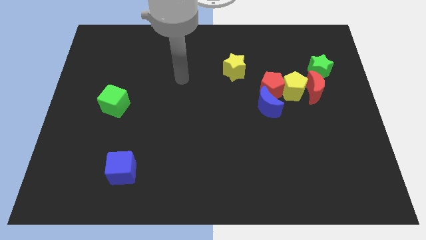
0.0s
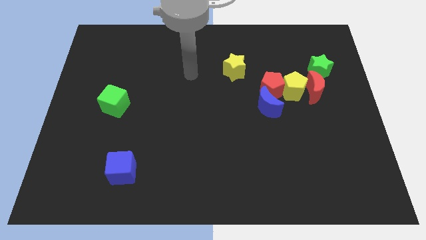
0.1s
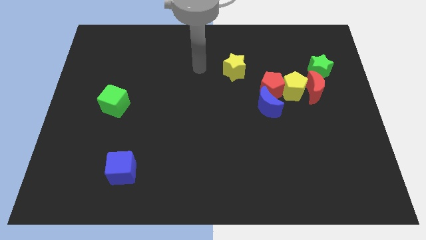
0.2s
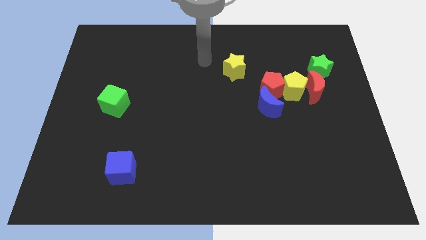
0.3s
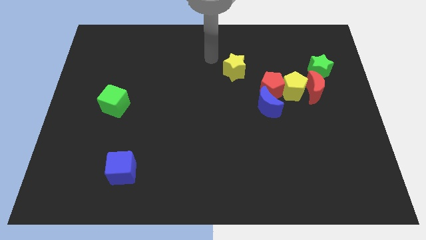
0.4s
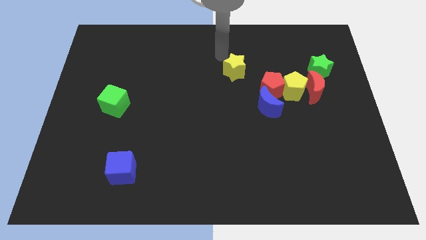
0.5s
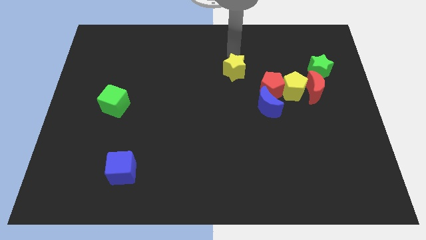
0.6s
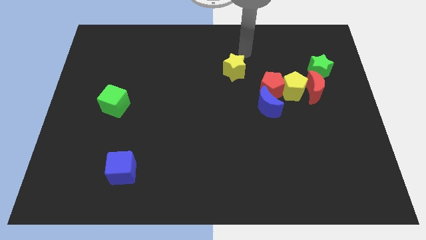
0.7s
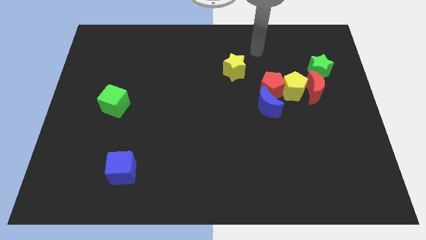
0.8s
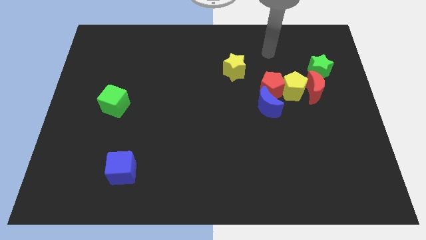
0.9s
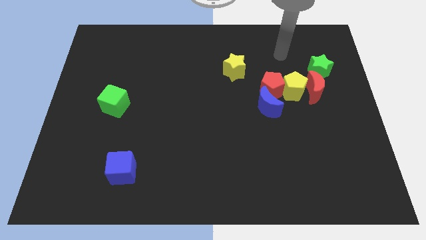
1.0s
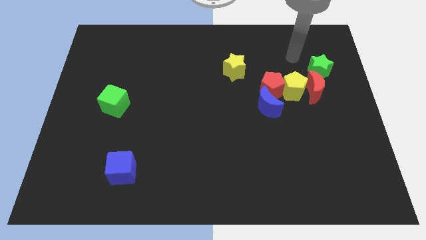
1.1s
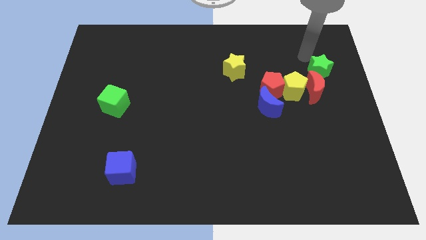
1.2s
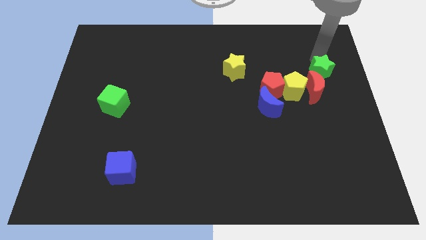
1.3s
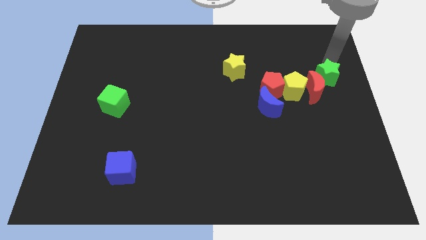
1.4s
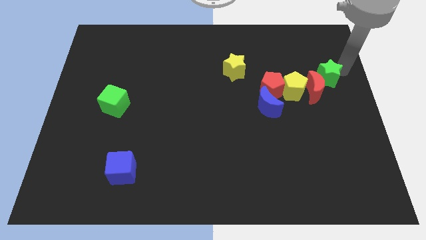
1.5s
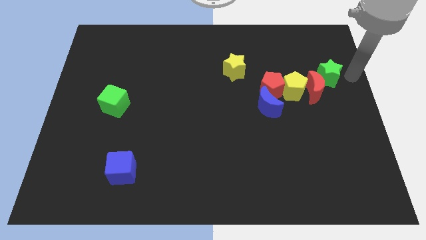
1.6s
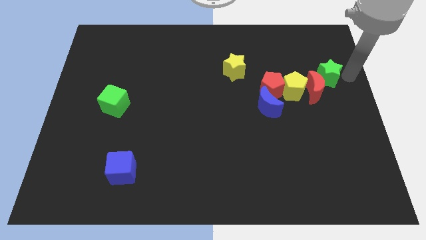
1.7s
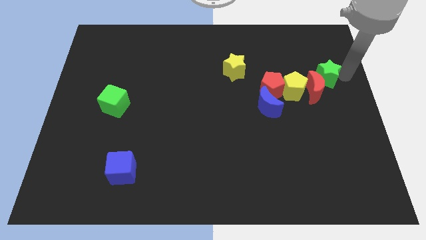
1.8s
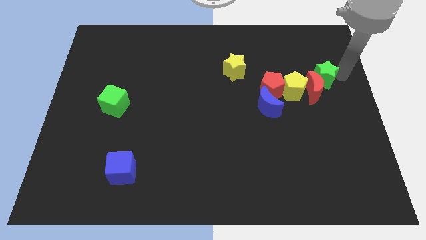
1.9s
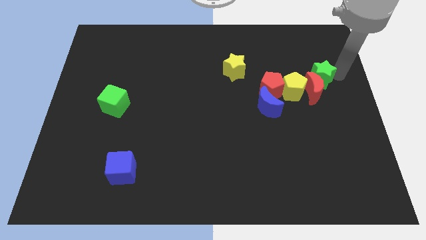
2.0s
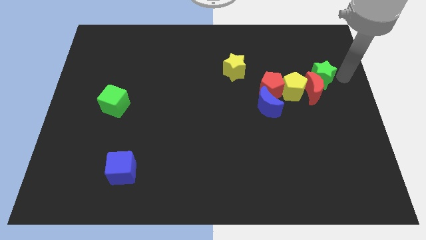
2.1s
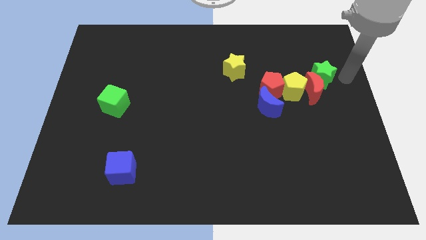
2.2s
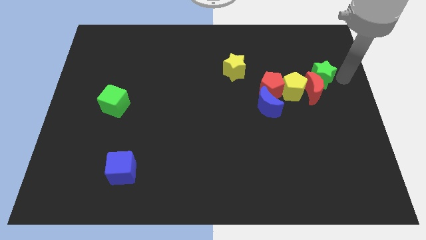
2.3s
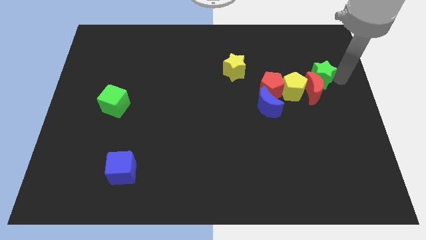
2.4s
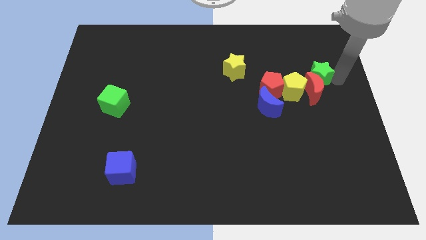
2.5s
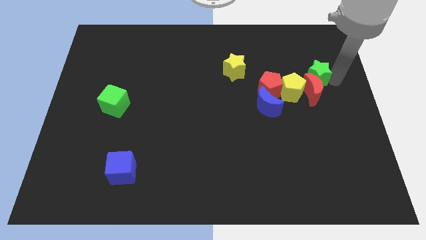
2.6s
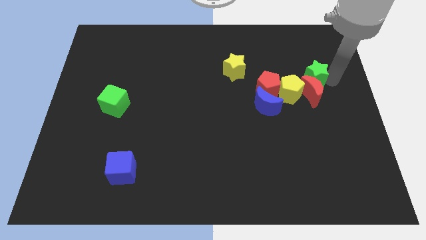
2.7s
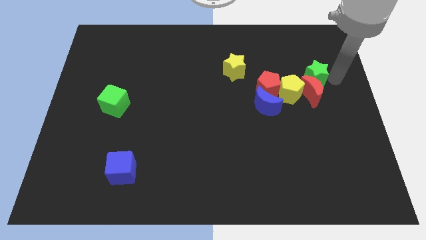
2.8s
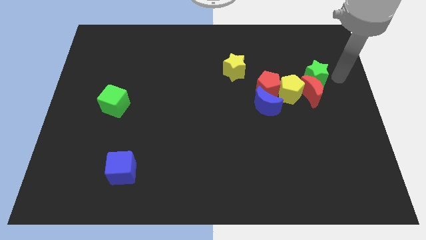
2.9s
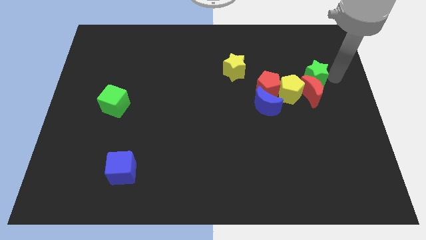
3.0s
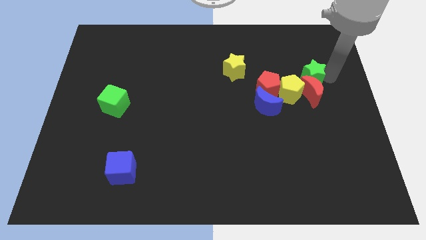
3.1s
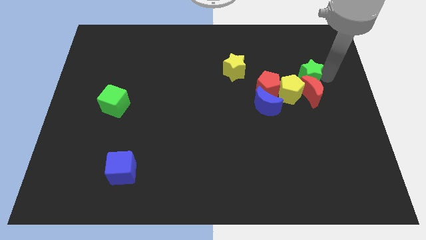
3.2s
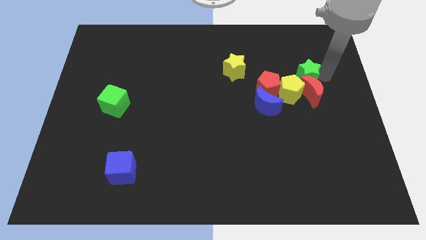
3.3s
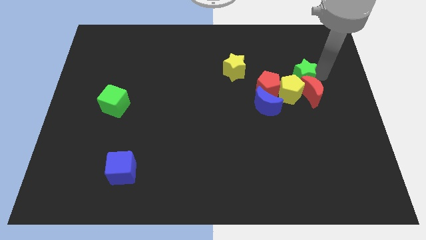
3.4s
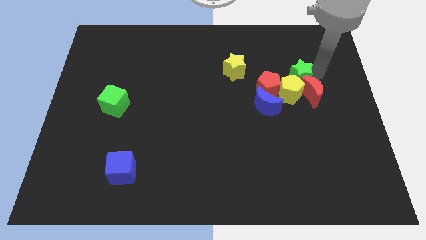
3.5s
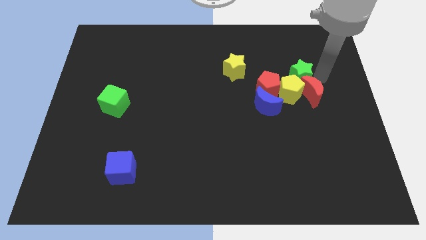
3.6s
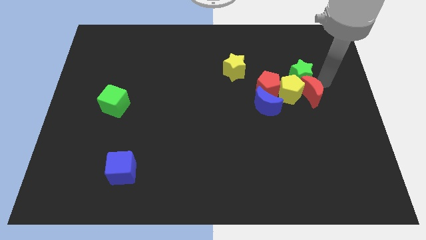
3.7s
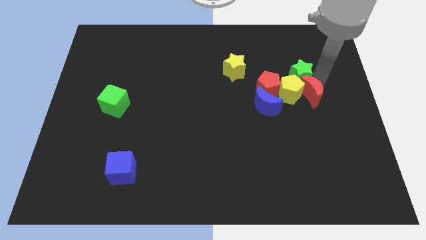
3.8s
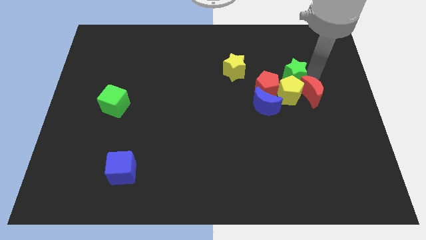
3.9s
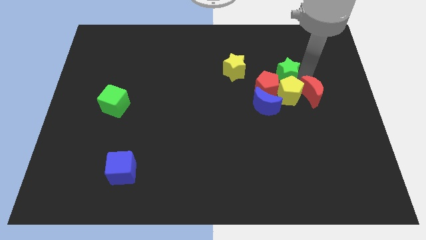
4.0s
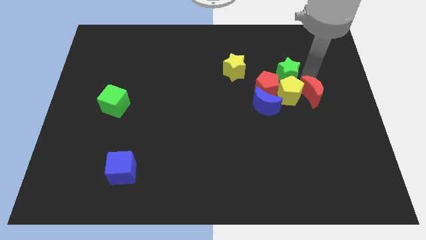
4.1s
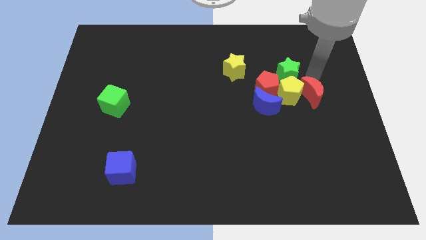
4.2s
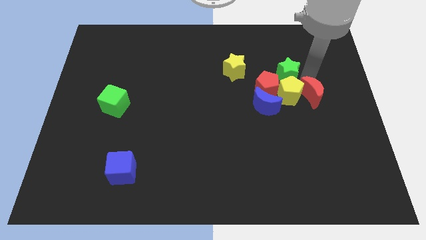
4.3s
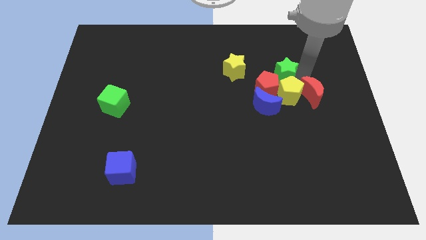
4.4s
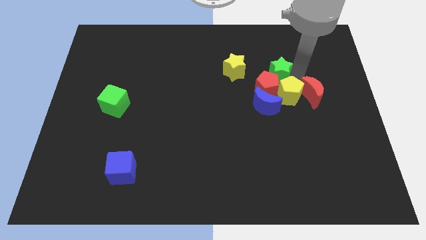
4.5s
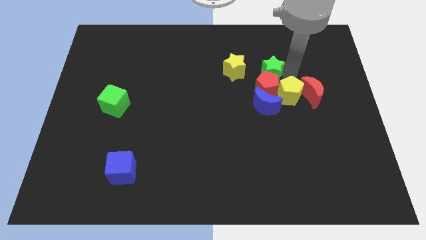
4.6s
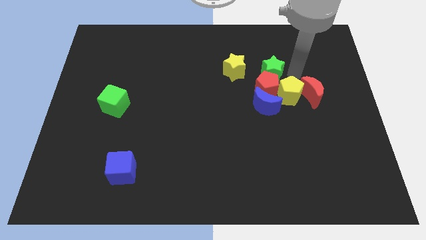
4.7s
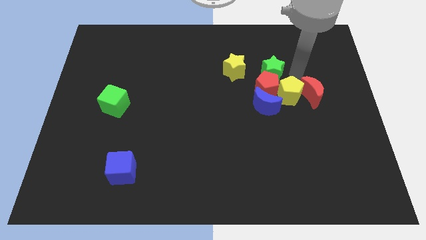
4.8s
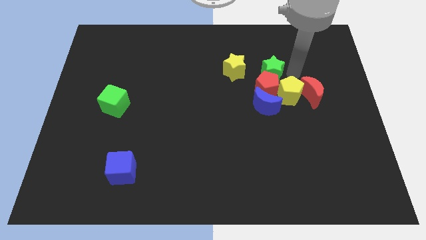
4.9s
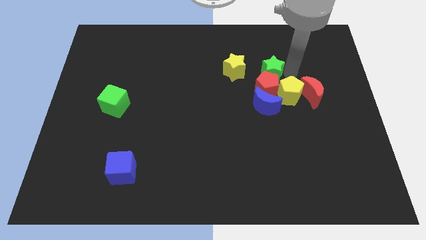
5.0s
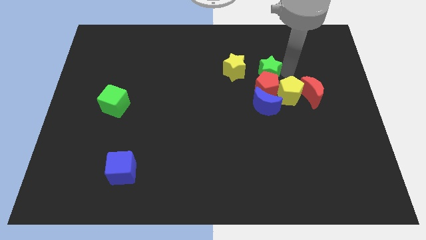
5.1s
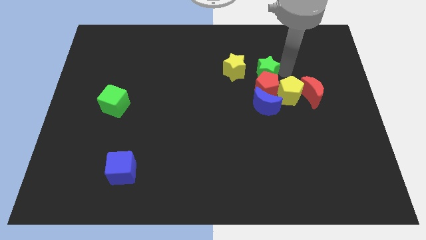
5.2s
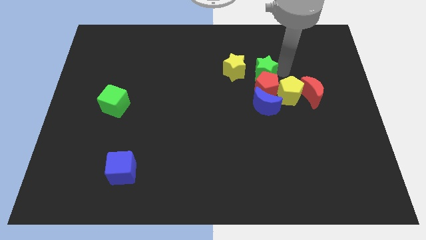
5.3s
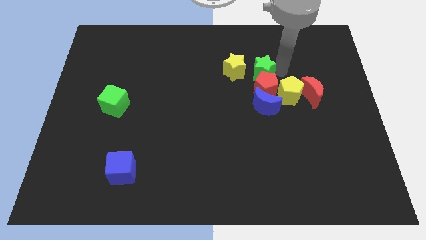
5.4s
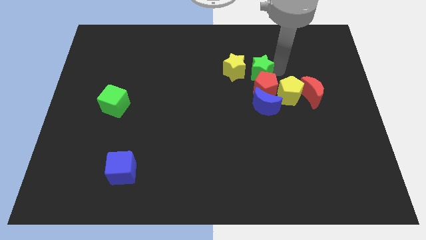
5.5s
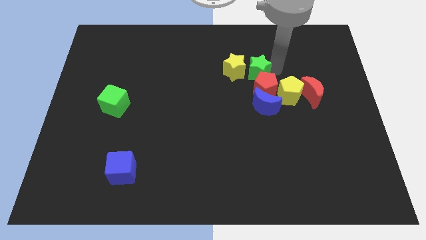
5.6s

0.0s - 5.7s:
slide the green star towards the yellow star

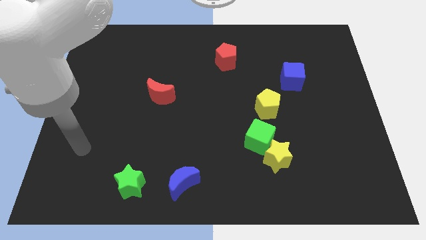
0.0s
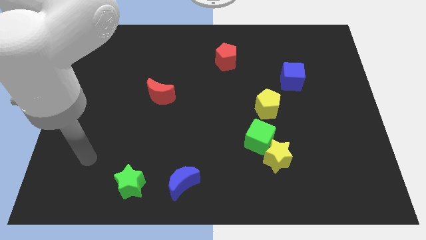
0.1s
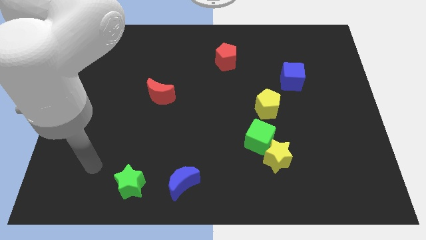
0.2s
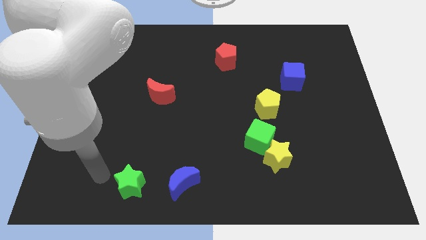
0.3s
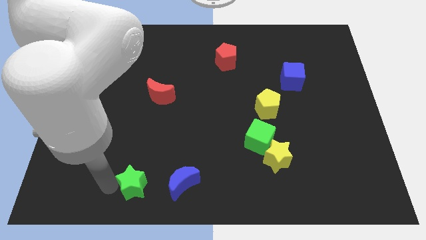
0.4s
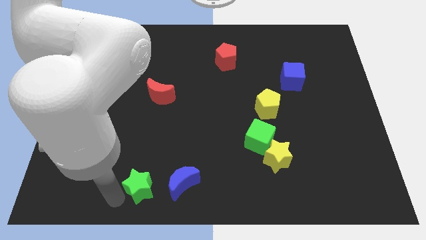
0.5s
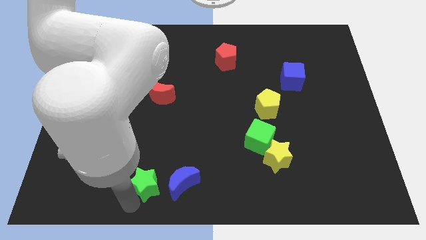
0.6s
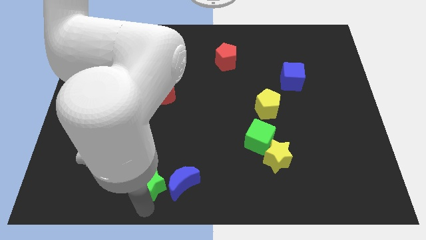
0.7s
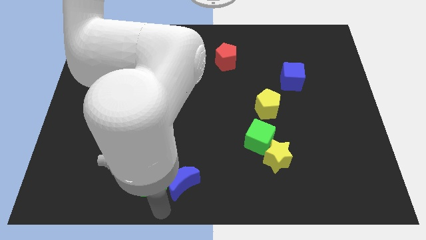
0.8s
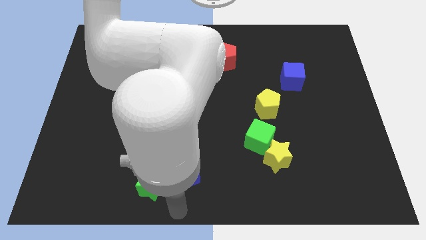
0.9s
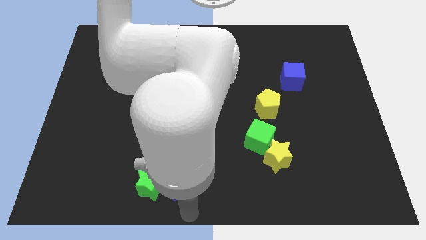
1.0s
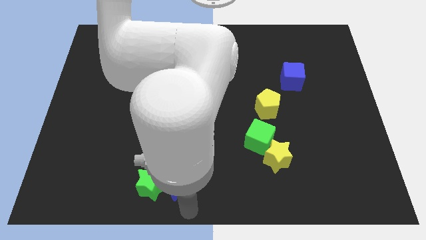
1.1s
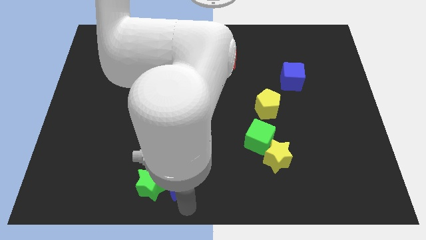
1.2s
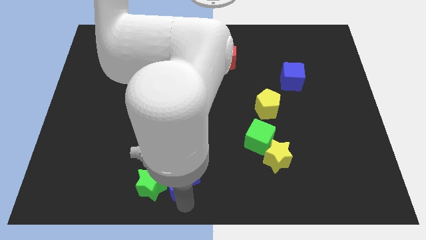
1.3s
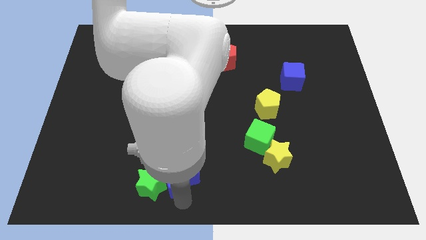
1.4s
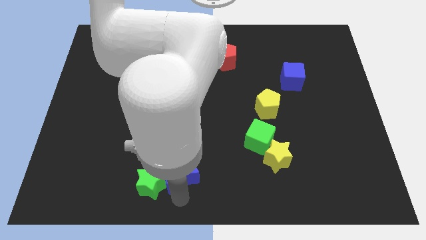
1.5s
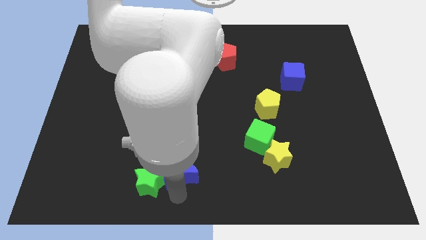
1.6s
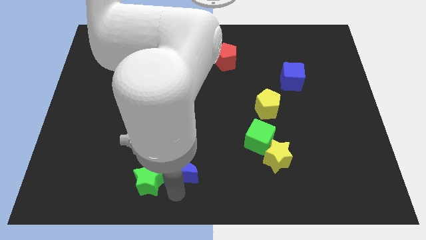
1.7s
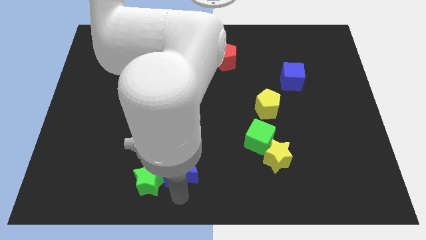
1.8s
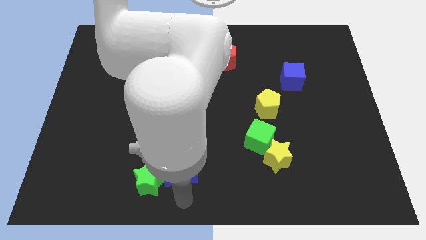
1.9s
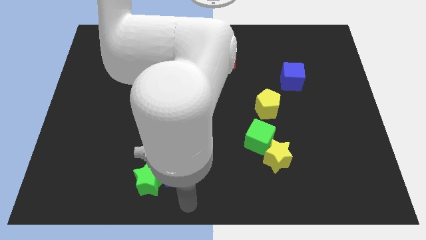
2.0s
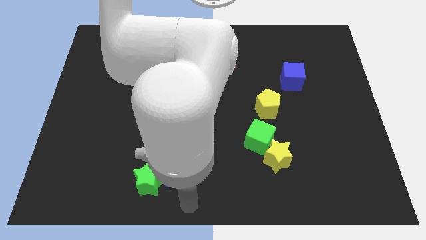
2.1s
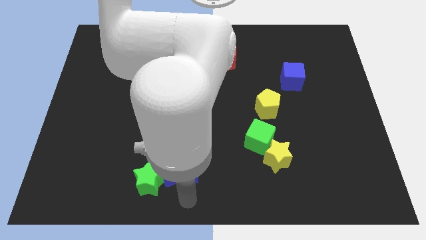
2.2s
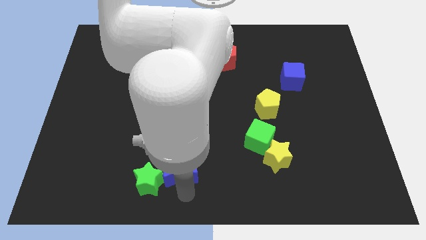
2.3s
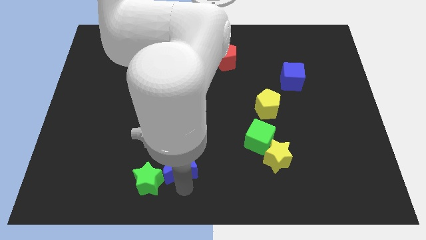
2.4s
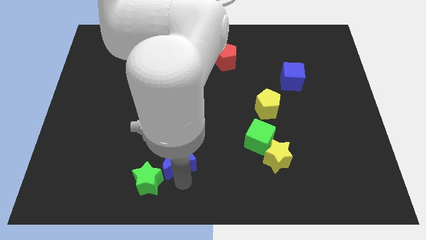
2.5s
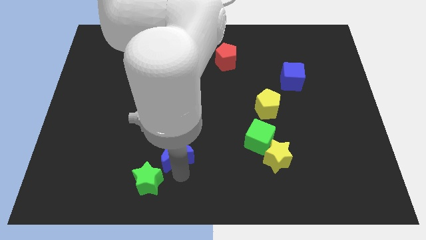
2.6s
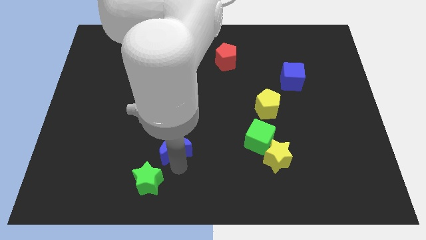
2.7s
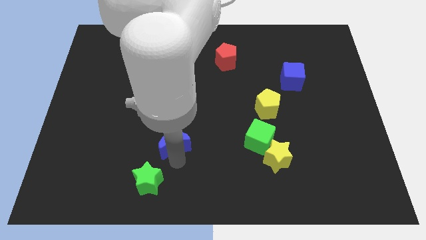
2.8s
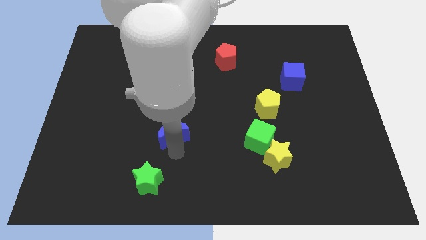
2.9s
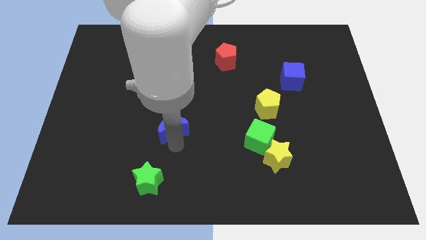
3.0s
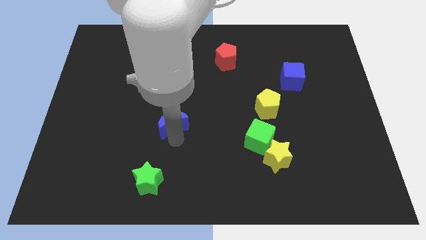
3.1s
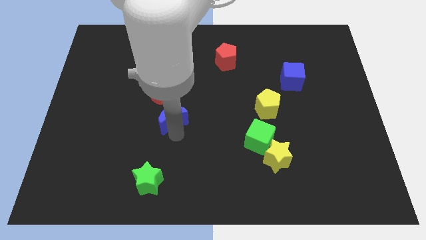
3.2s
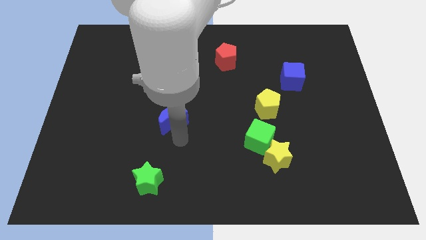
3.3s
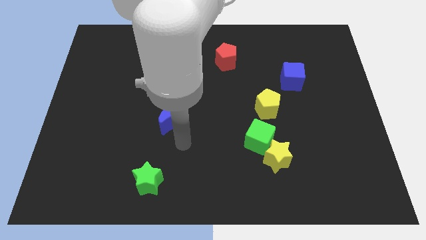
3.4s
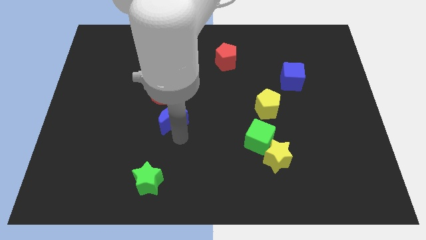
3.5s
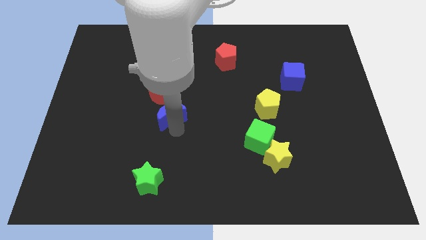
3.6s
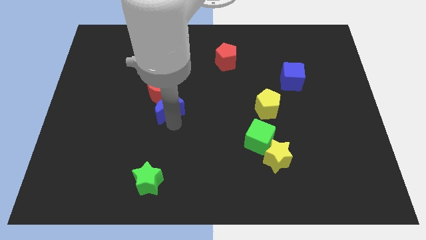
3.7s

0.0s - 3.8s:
slide the blue moon to the red moon
